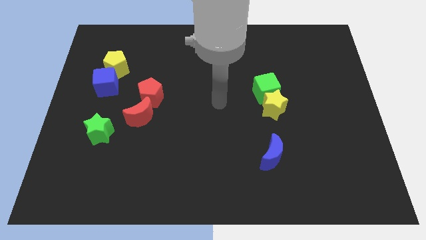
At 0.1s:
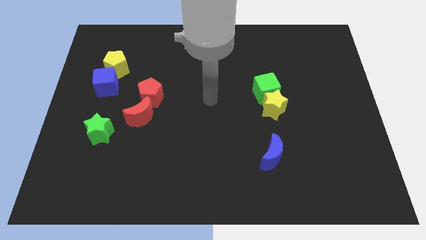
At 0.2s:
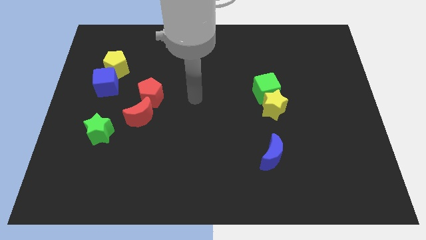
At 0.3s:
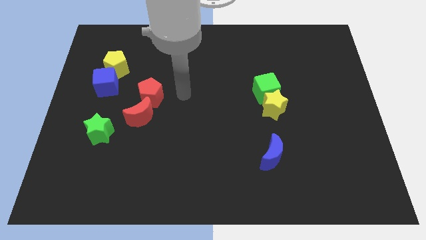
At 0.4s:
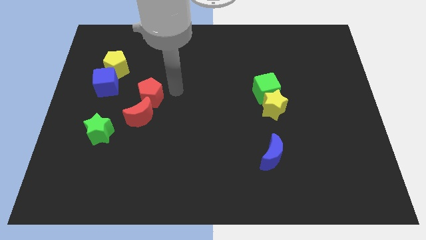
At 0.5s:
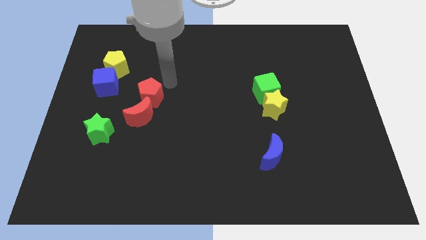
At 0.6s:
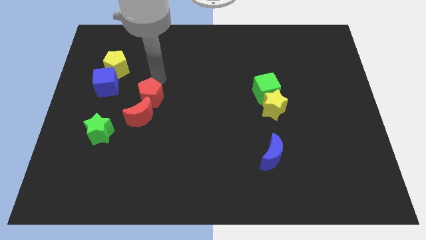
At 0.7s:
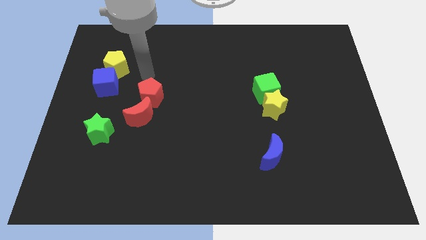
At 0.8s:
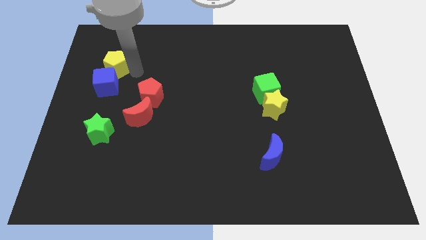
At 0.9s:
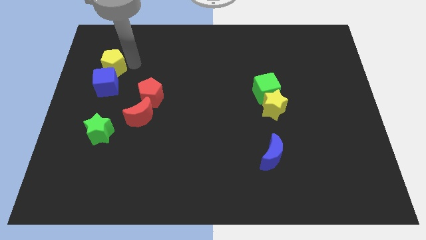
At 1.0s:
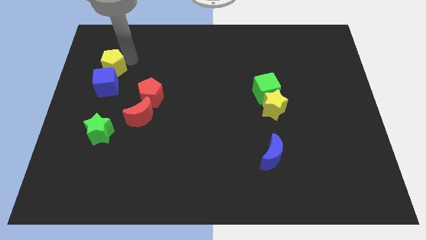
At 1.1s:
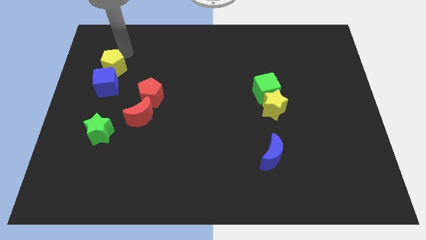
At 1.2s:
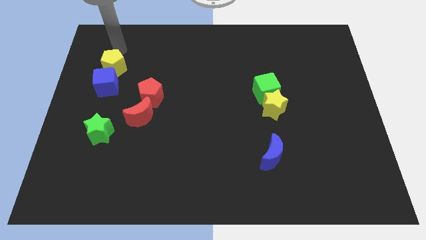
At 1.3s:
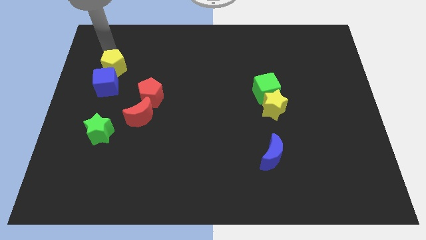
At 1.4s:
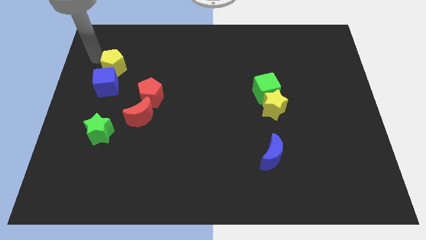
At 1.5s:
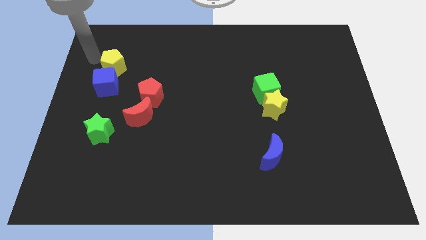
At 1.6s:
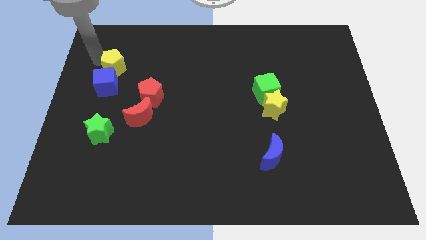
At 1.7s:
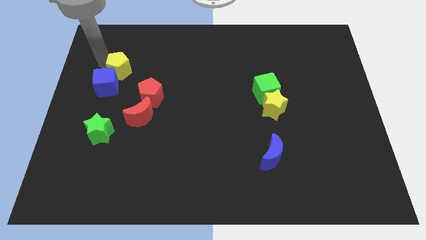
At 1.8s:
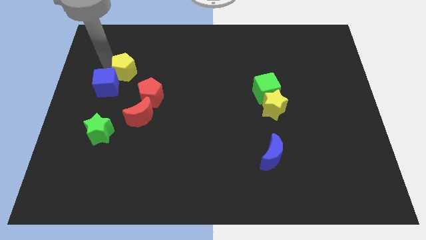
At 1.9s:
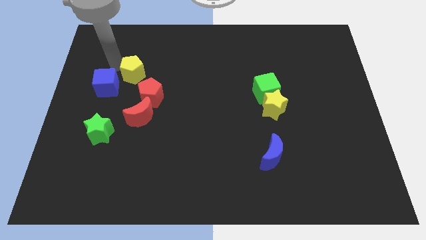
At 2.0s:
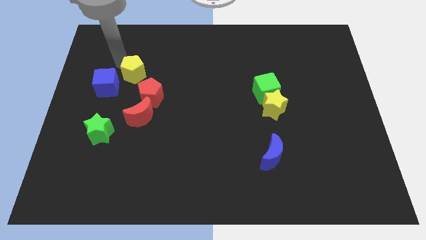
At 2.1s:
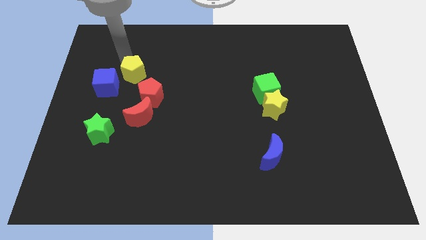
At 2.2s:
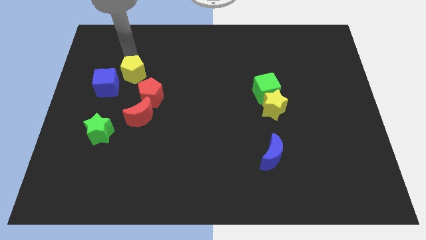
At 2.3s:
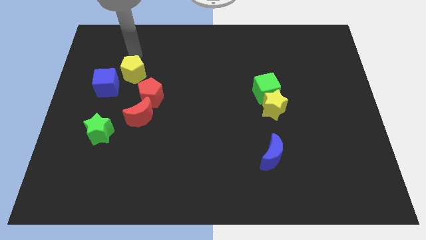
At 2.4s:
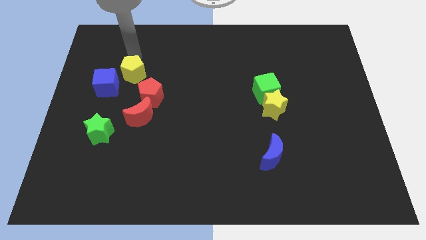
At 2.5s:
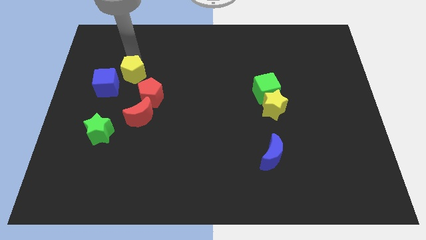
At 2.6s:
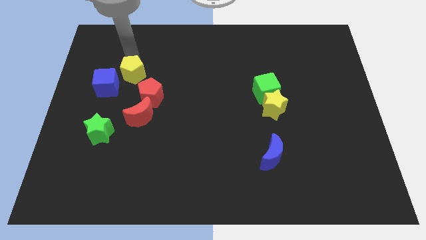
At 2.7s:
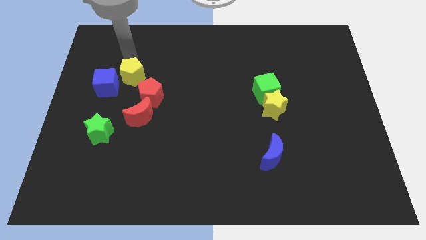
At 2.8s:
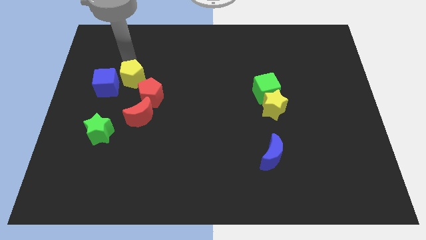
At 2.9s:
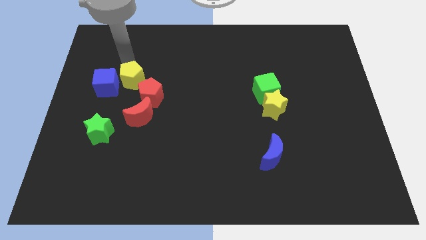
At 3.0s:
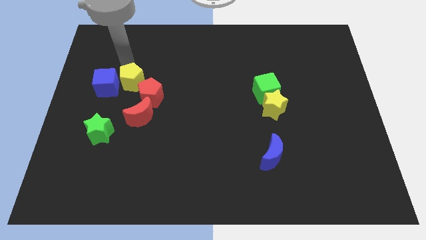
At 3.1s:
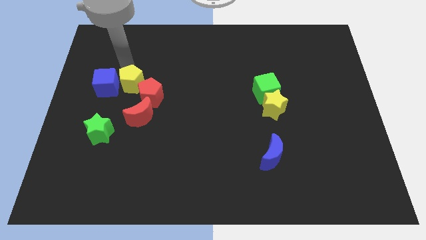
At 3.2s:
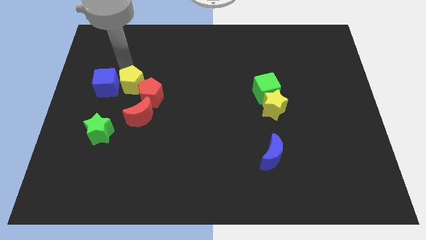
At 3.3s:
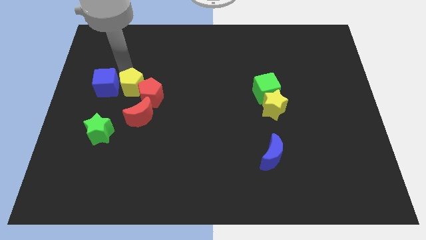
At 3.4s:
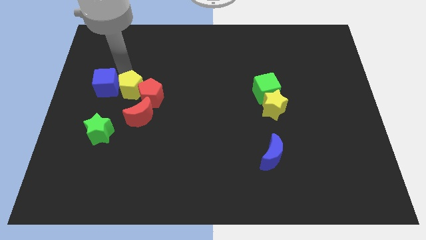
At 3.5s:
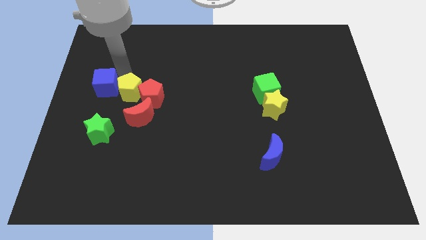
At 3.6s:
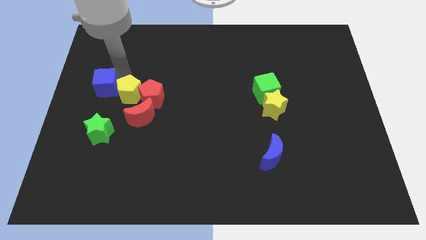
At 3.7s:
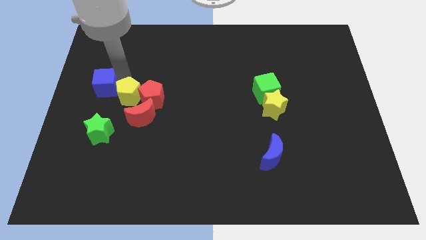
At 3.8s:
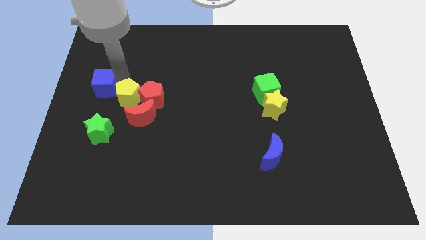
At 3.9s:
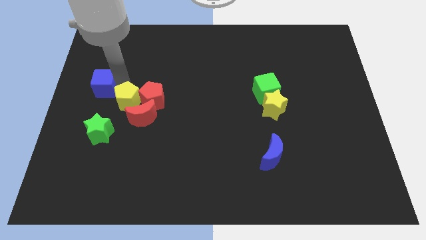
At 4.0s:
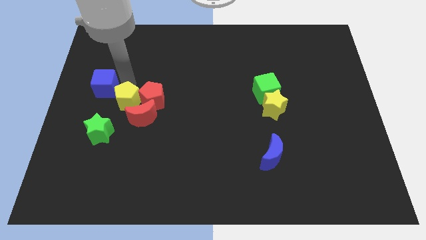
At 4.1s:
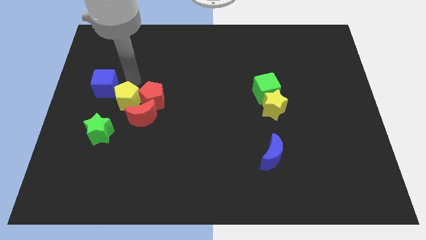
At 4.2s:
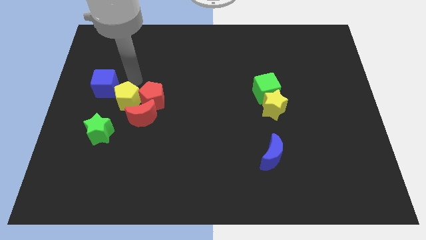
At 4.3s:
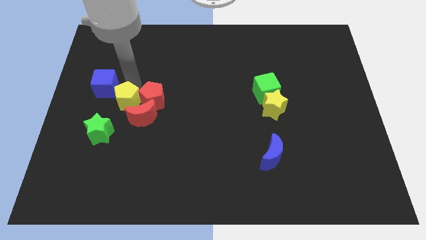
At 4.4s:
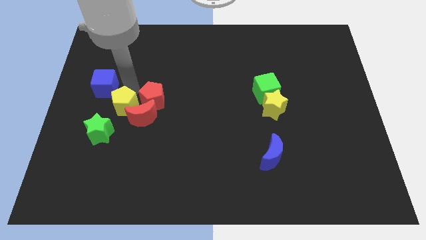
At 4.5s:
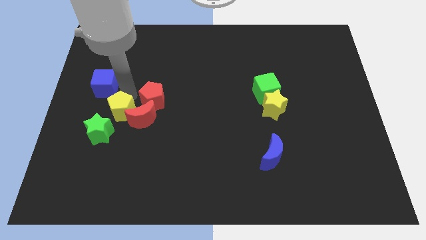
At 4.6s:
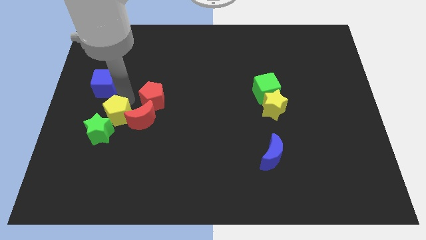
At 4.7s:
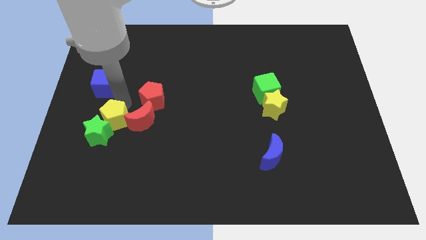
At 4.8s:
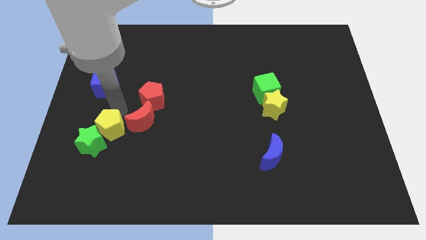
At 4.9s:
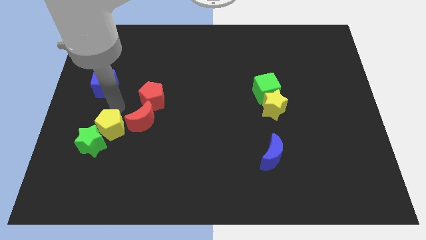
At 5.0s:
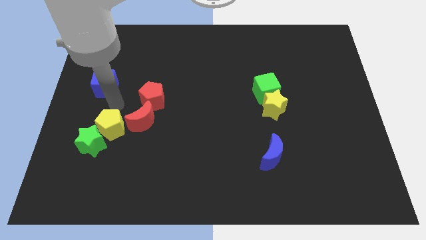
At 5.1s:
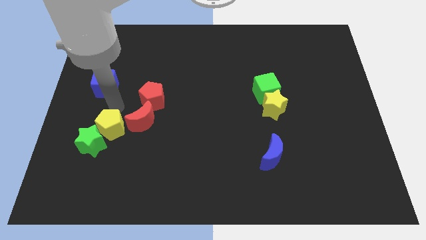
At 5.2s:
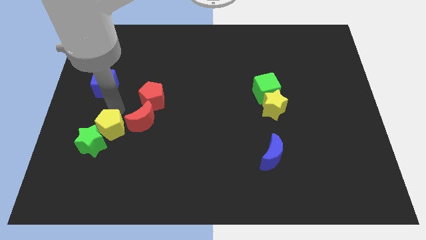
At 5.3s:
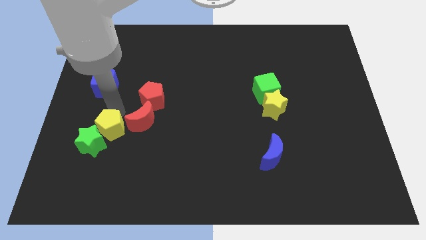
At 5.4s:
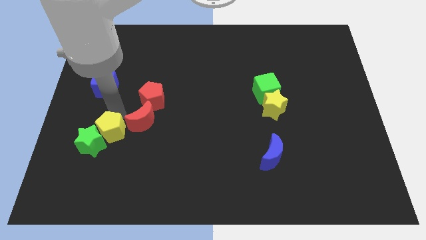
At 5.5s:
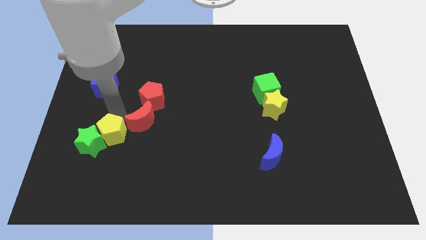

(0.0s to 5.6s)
slide the yellow pentagon downwards

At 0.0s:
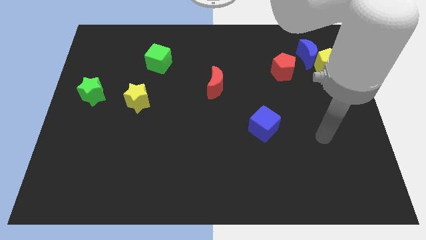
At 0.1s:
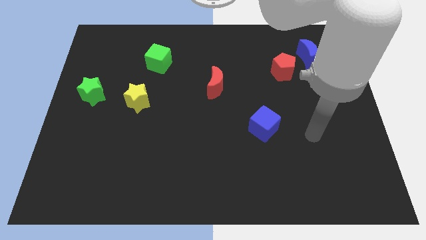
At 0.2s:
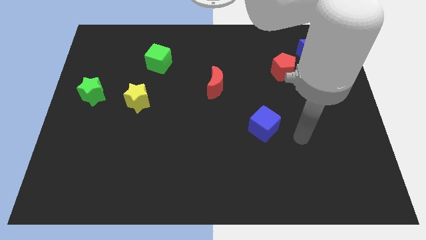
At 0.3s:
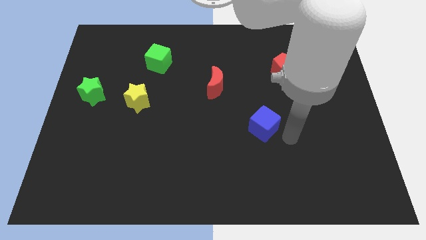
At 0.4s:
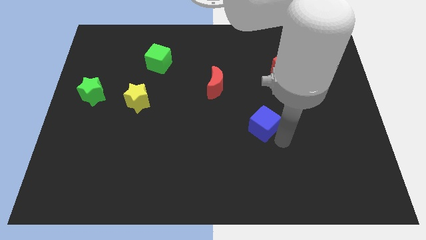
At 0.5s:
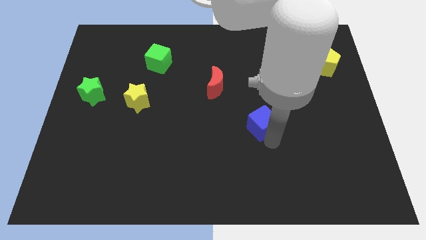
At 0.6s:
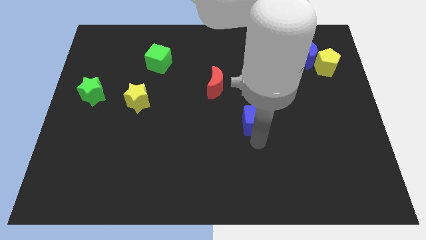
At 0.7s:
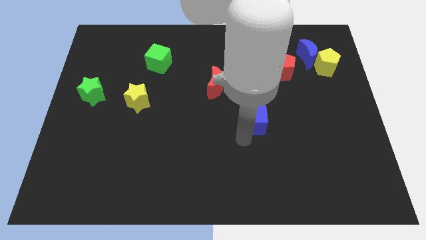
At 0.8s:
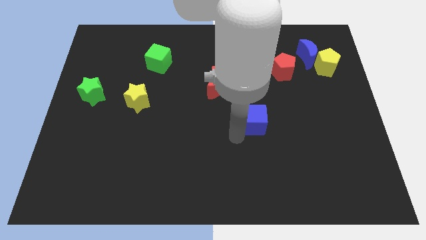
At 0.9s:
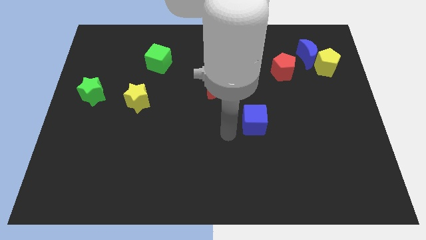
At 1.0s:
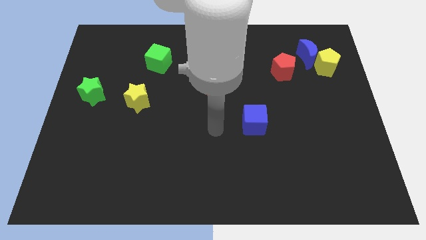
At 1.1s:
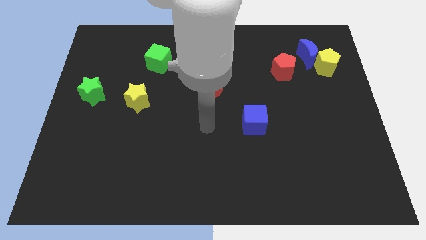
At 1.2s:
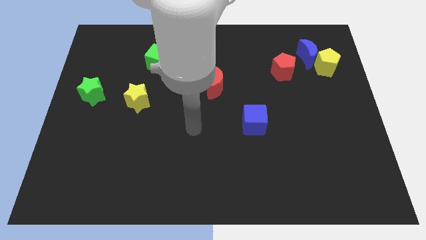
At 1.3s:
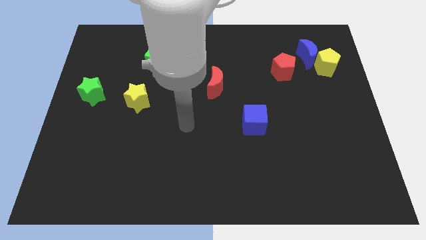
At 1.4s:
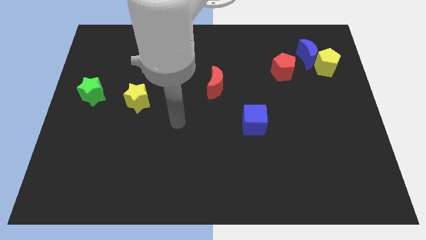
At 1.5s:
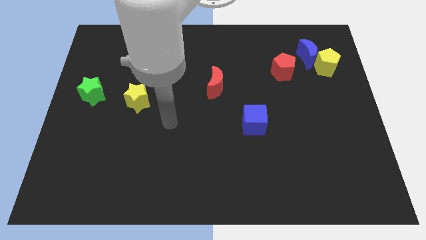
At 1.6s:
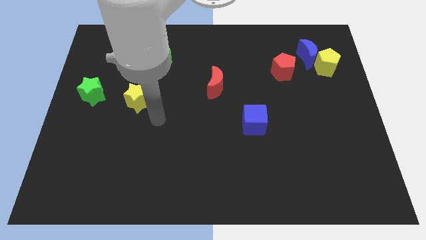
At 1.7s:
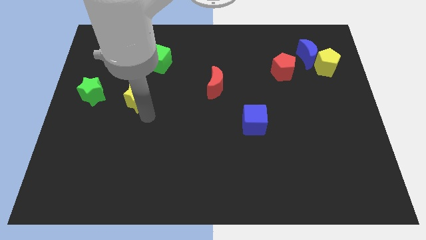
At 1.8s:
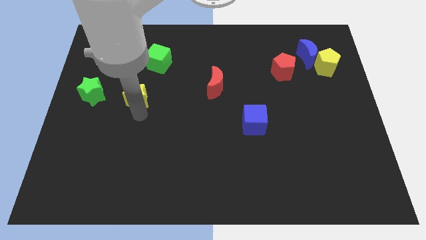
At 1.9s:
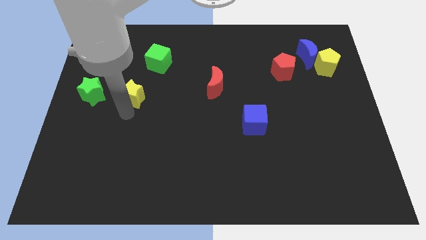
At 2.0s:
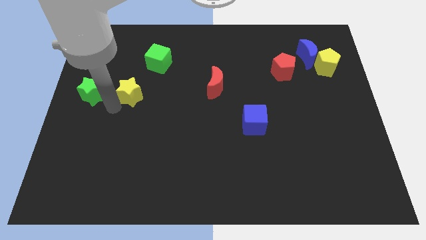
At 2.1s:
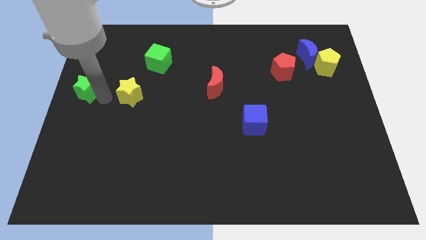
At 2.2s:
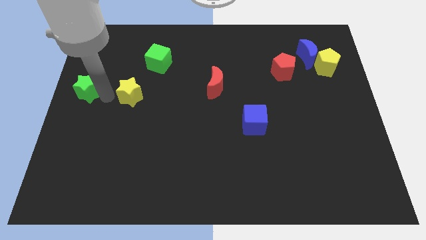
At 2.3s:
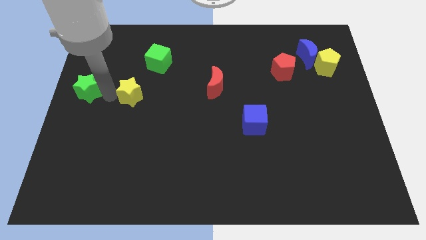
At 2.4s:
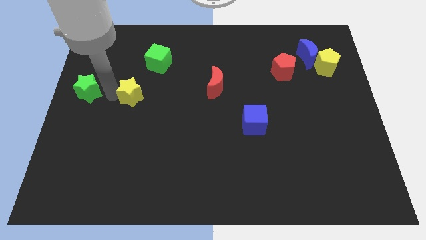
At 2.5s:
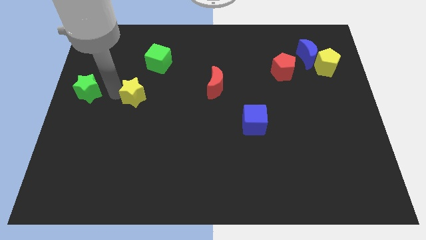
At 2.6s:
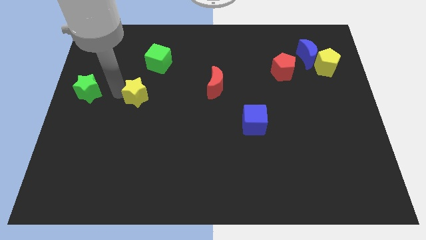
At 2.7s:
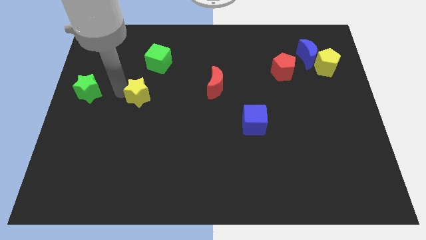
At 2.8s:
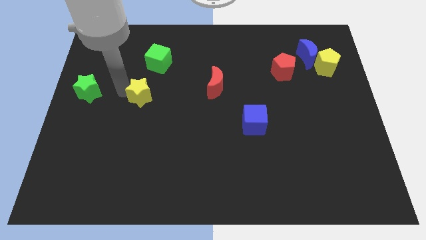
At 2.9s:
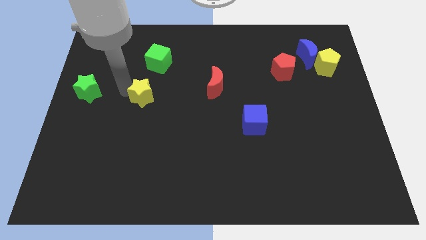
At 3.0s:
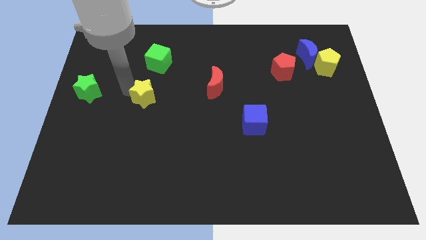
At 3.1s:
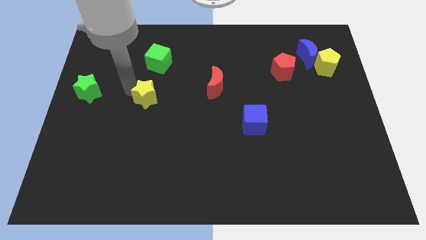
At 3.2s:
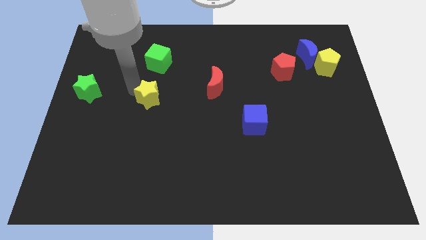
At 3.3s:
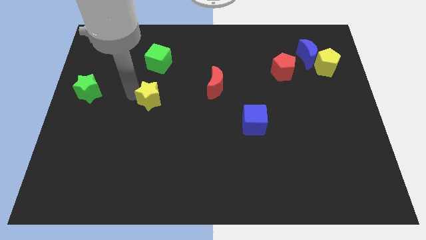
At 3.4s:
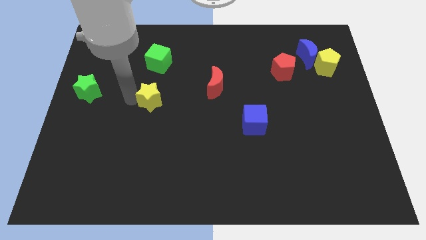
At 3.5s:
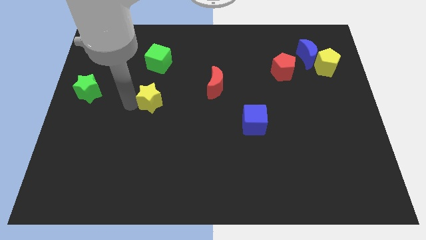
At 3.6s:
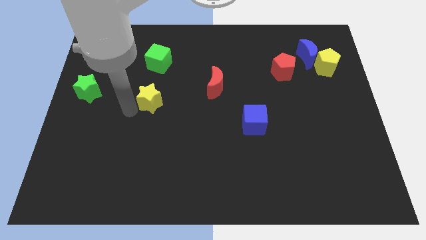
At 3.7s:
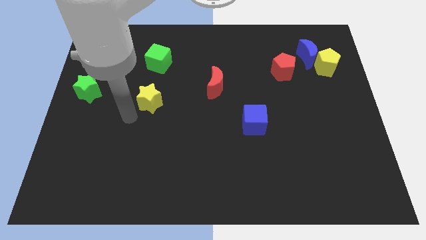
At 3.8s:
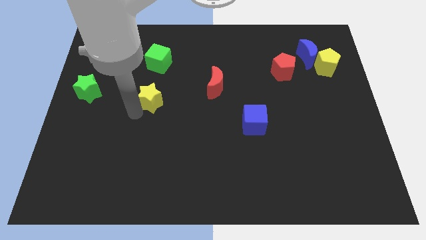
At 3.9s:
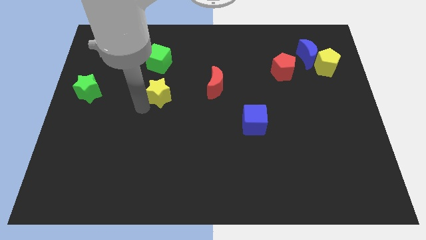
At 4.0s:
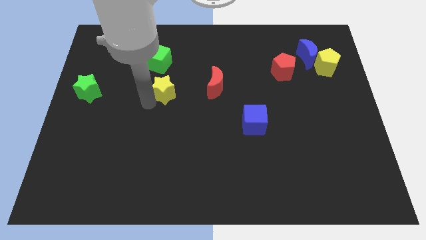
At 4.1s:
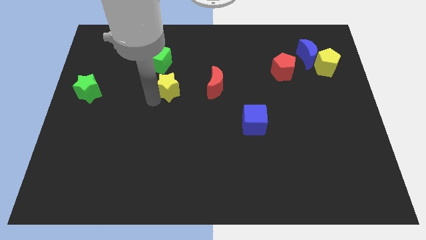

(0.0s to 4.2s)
slightly move the yellow star upwards and then right
